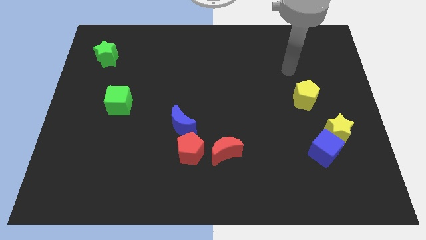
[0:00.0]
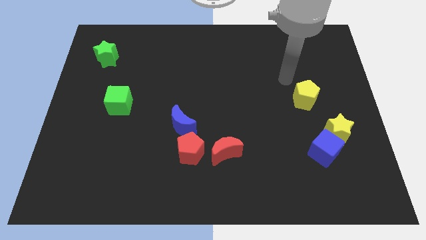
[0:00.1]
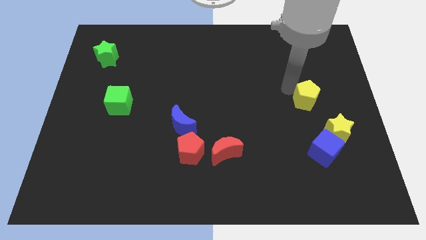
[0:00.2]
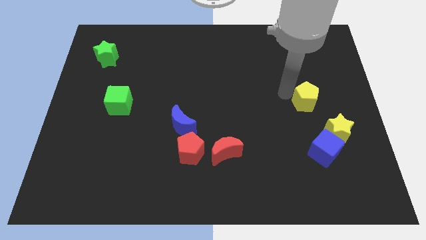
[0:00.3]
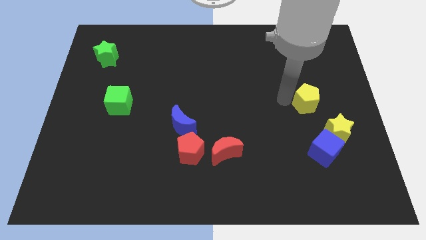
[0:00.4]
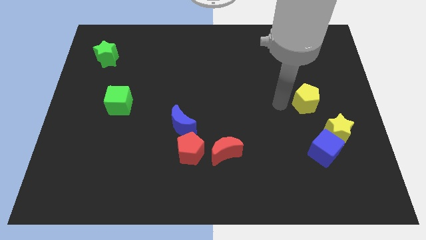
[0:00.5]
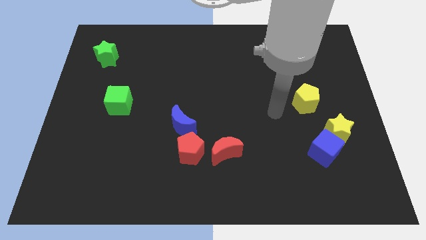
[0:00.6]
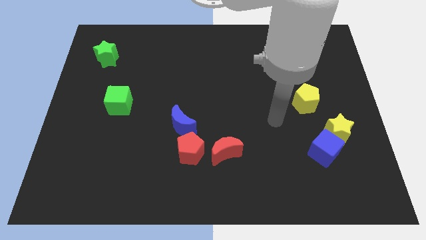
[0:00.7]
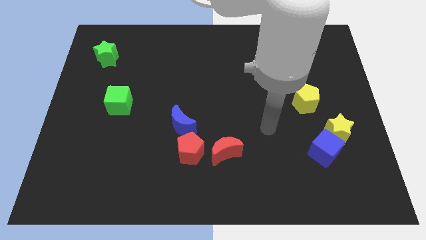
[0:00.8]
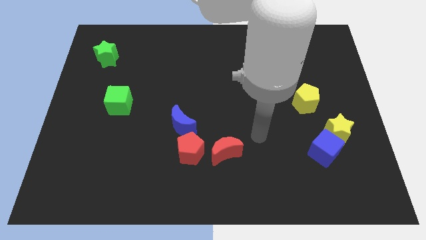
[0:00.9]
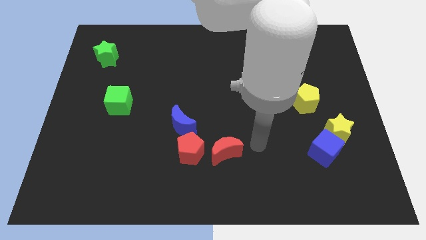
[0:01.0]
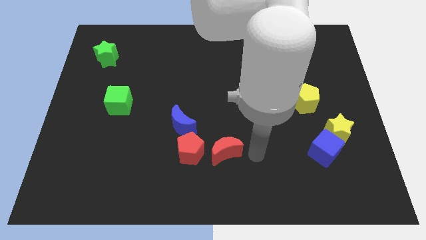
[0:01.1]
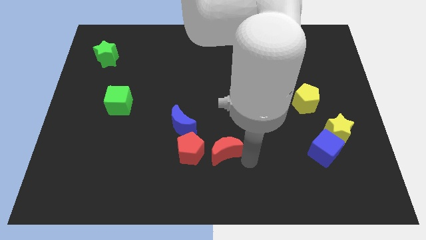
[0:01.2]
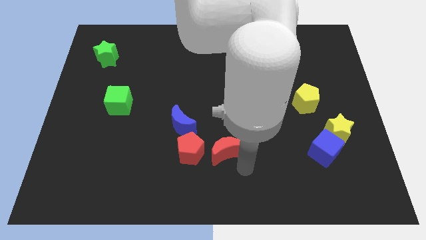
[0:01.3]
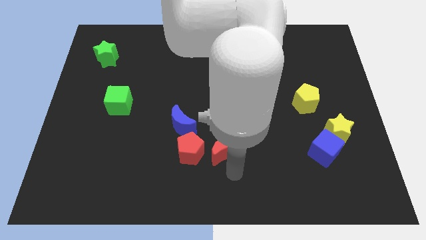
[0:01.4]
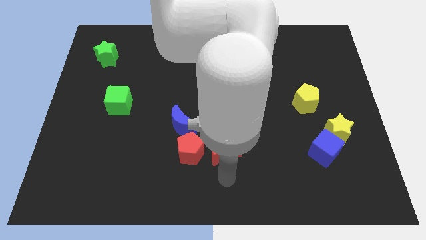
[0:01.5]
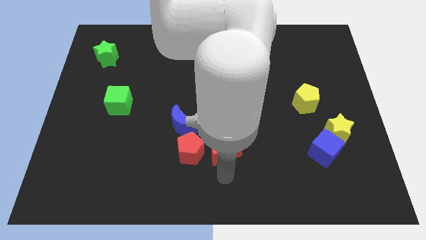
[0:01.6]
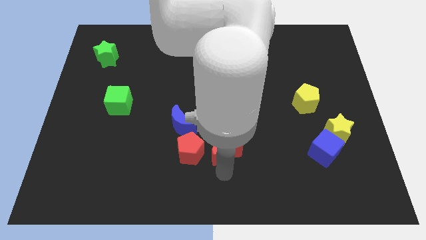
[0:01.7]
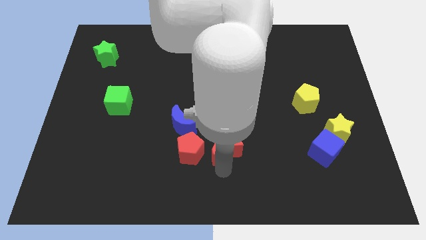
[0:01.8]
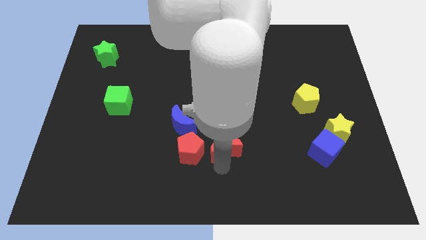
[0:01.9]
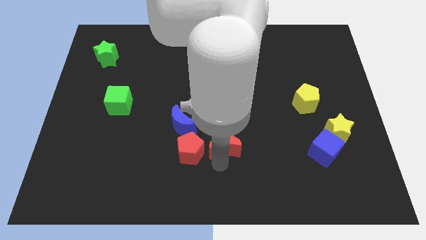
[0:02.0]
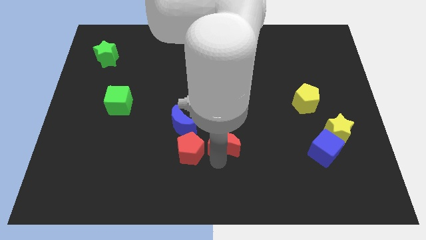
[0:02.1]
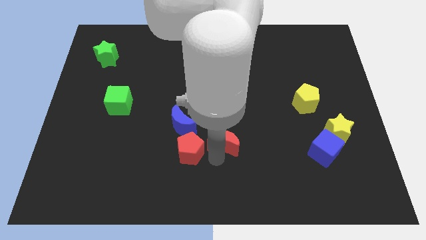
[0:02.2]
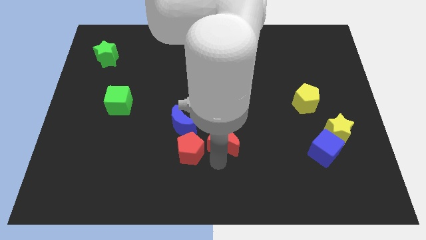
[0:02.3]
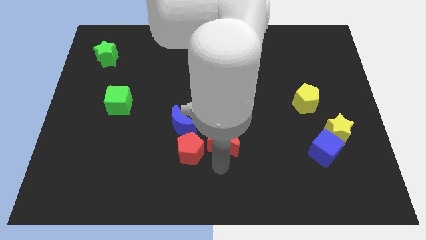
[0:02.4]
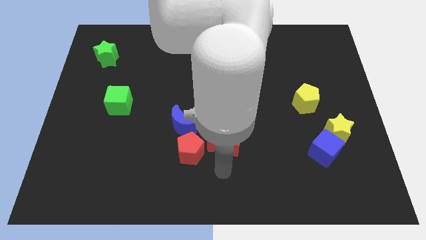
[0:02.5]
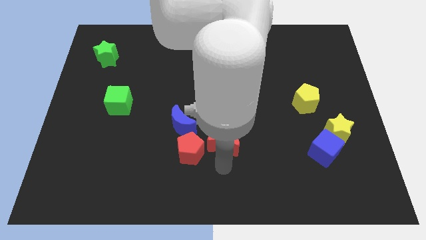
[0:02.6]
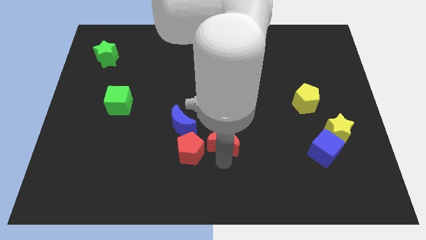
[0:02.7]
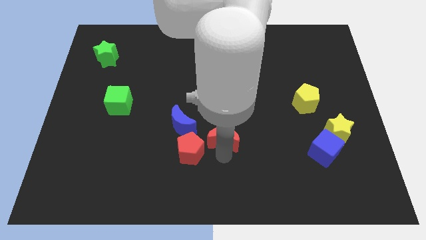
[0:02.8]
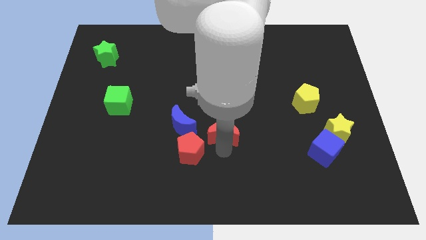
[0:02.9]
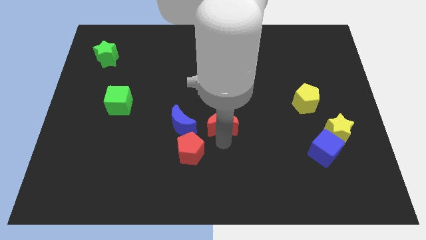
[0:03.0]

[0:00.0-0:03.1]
slightly slide the red moon upwards

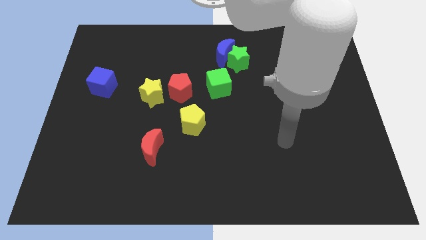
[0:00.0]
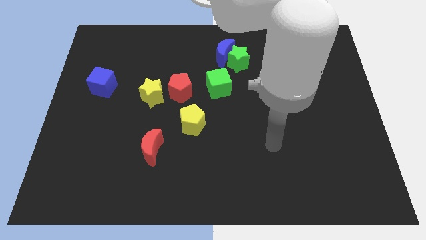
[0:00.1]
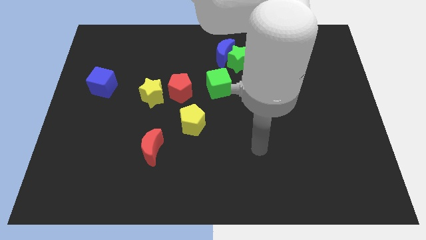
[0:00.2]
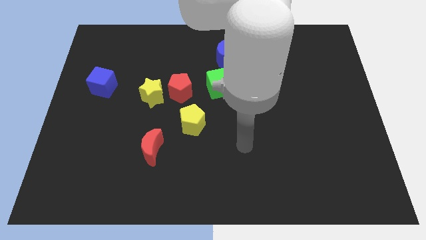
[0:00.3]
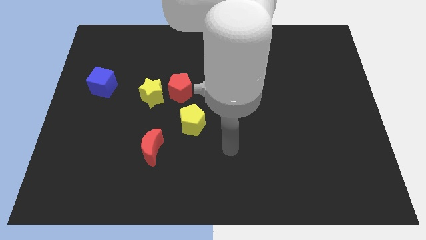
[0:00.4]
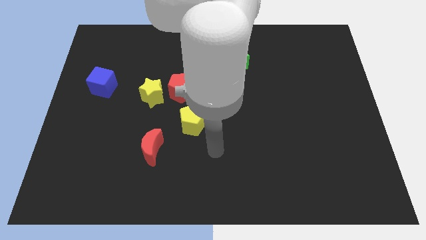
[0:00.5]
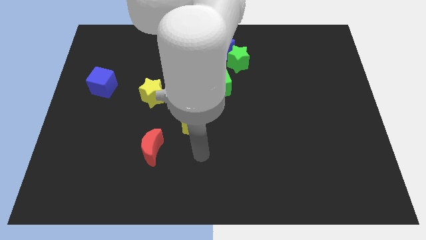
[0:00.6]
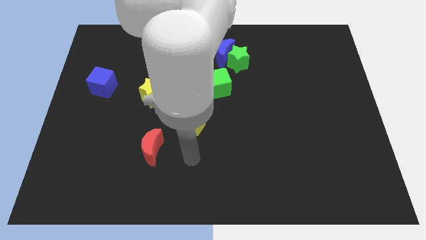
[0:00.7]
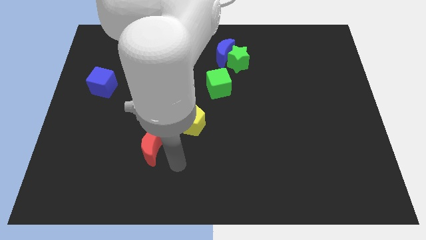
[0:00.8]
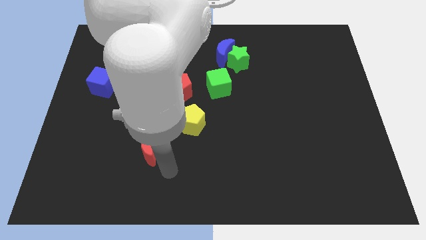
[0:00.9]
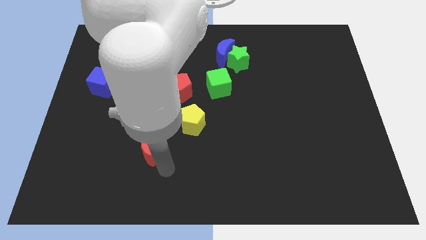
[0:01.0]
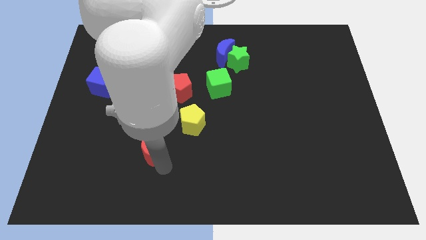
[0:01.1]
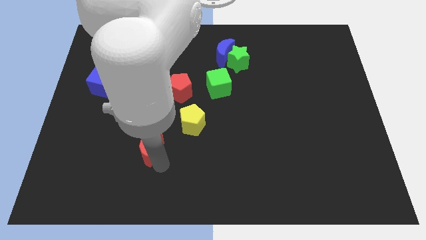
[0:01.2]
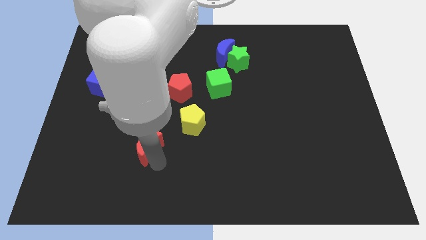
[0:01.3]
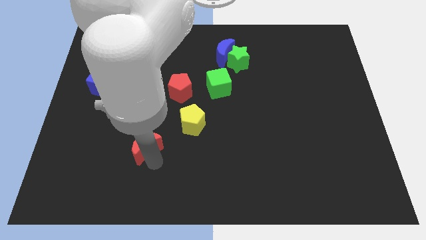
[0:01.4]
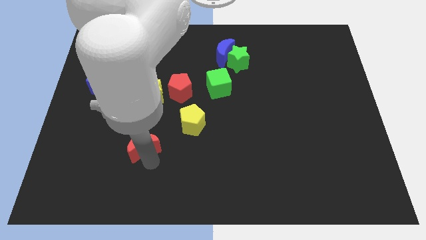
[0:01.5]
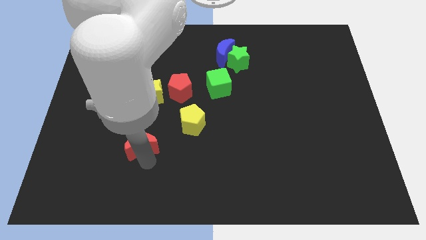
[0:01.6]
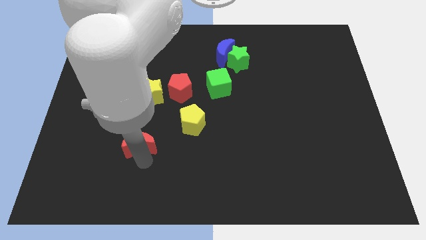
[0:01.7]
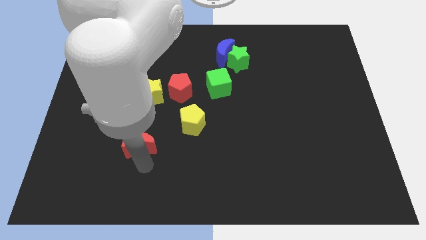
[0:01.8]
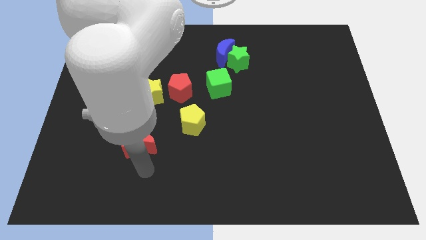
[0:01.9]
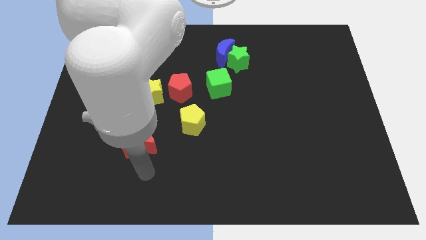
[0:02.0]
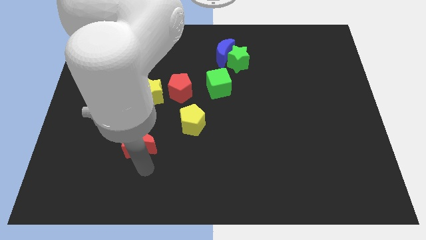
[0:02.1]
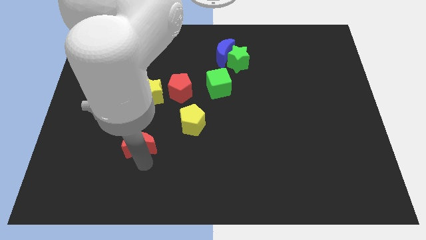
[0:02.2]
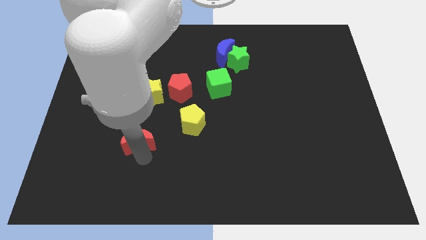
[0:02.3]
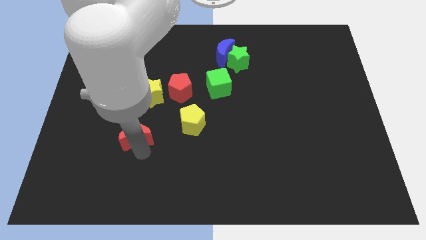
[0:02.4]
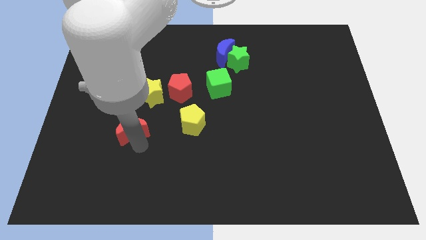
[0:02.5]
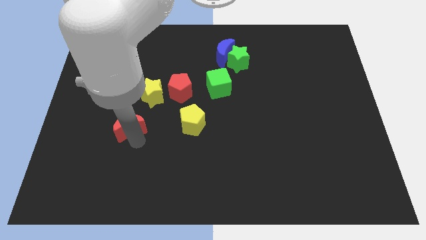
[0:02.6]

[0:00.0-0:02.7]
move the red moon up and to the left diagonally somewhat

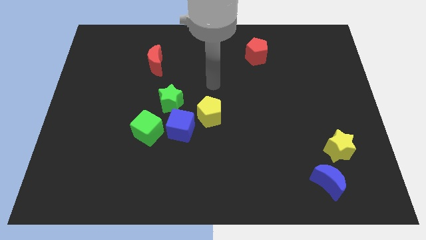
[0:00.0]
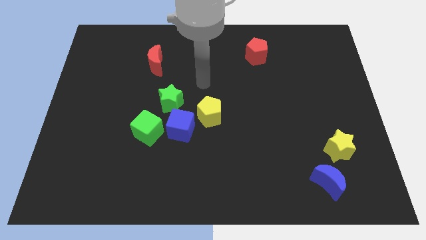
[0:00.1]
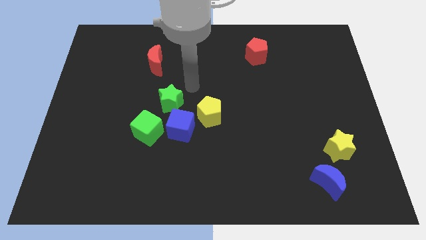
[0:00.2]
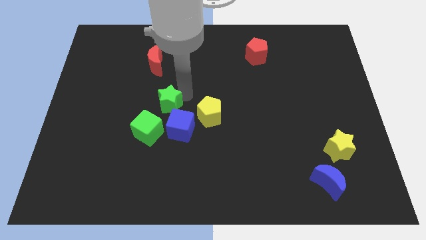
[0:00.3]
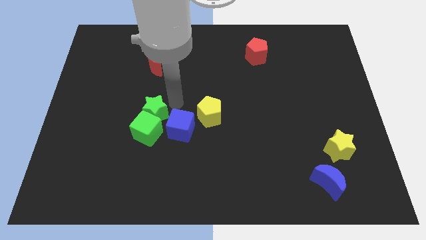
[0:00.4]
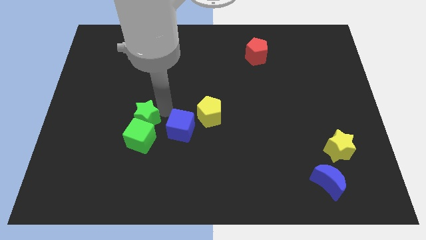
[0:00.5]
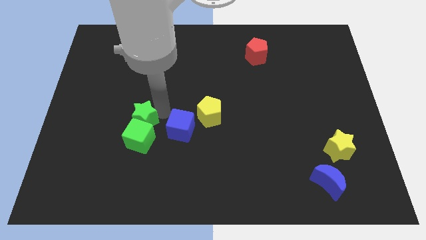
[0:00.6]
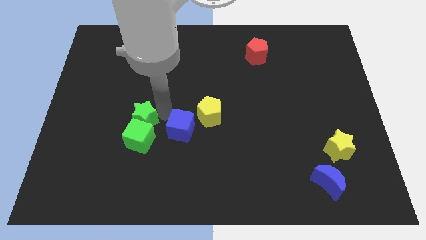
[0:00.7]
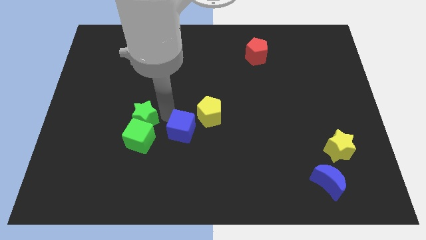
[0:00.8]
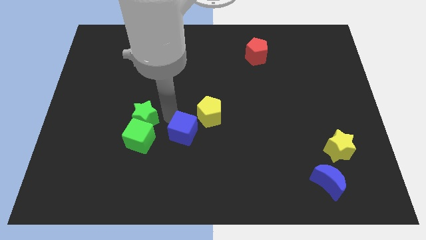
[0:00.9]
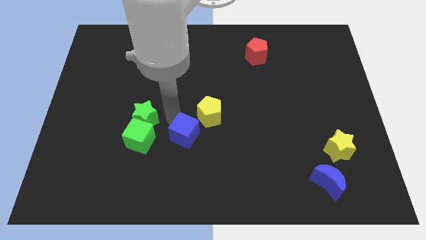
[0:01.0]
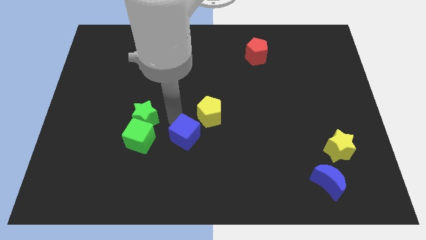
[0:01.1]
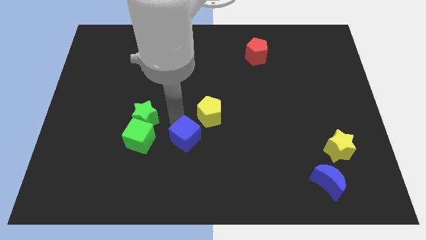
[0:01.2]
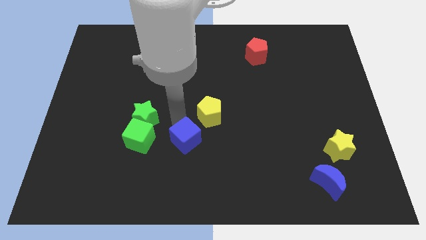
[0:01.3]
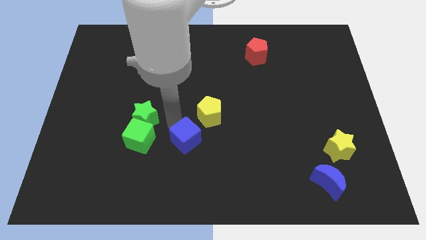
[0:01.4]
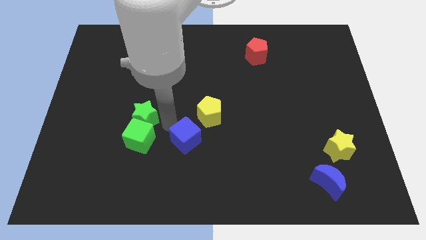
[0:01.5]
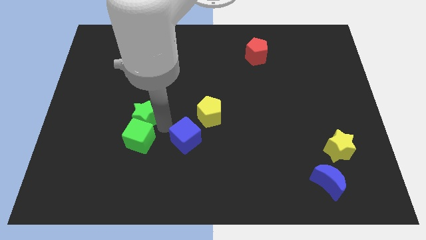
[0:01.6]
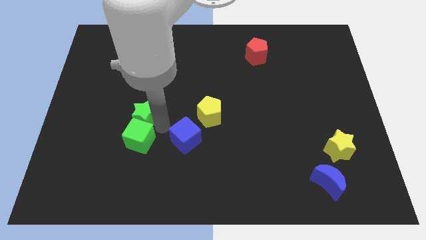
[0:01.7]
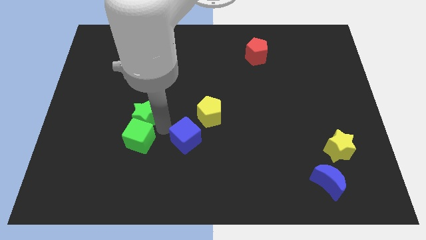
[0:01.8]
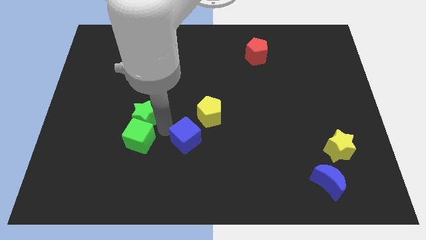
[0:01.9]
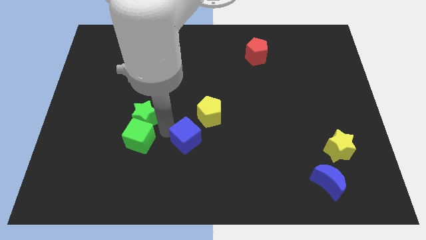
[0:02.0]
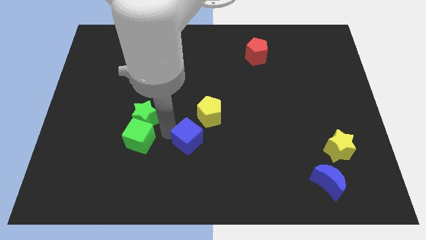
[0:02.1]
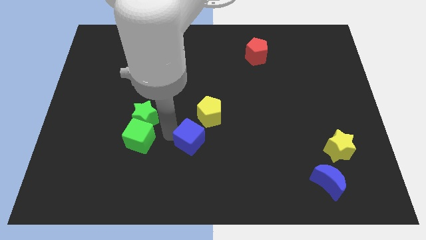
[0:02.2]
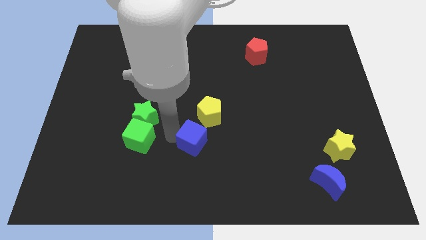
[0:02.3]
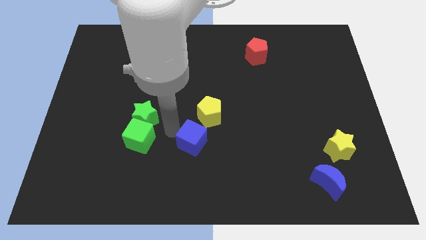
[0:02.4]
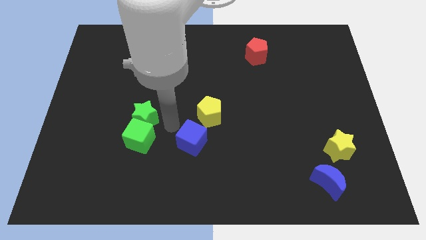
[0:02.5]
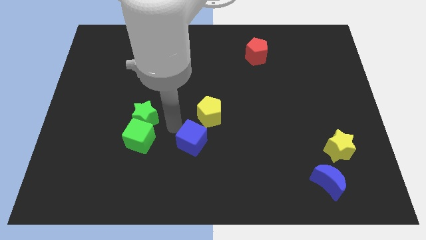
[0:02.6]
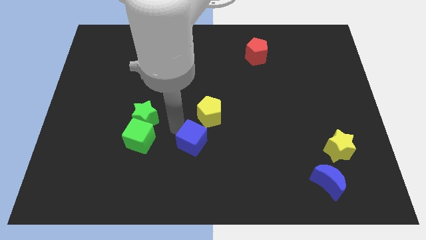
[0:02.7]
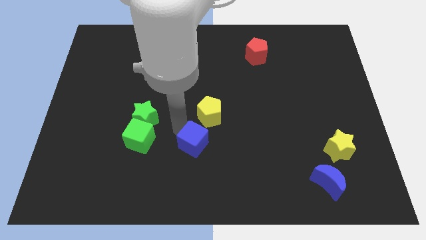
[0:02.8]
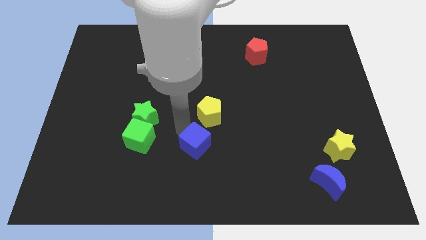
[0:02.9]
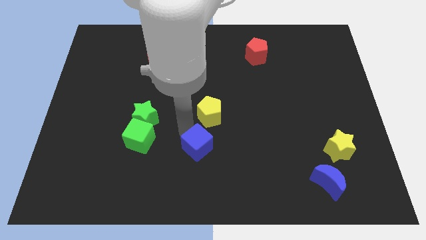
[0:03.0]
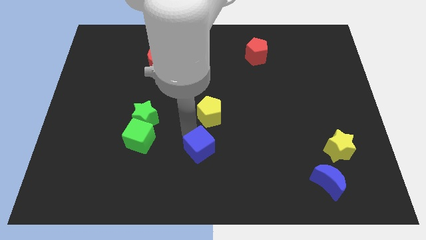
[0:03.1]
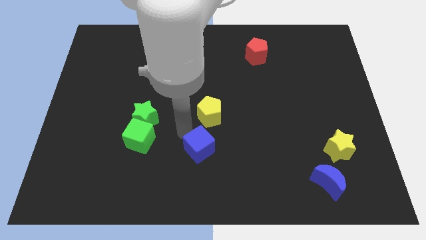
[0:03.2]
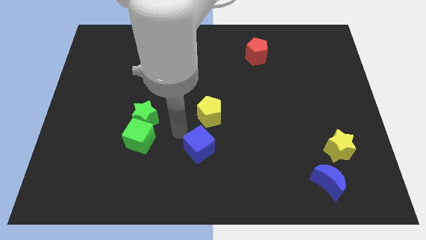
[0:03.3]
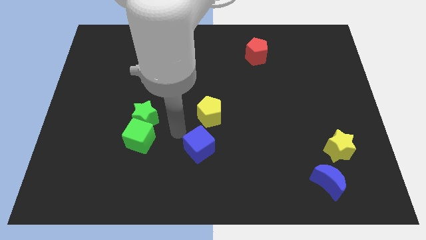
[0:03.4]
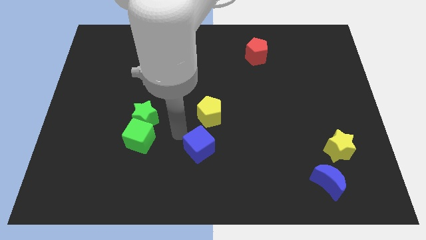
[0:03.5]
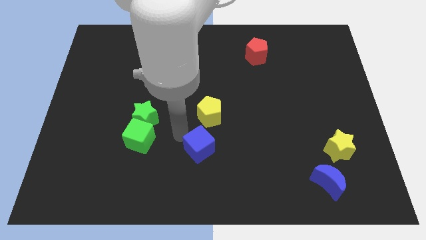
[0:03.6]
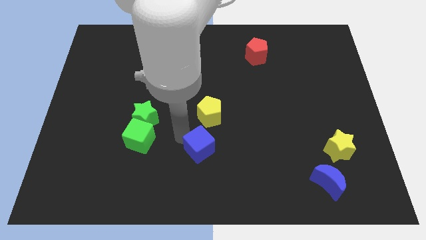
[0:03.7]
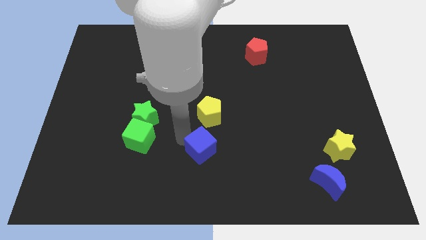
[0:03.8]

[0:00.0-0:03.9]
slightly slide the blue cube diagonally down and right
